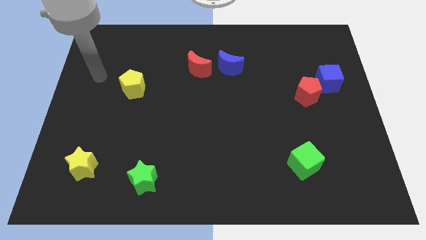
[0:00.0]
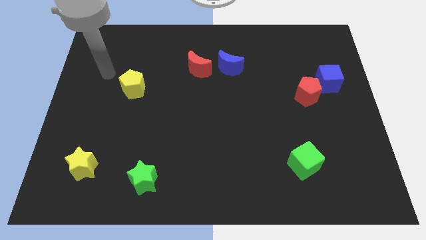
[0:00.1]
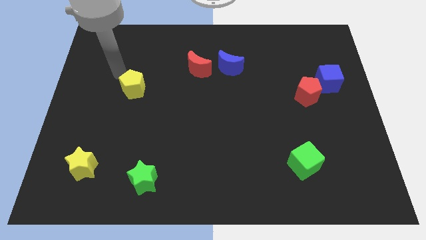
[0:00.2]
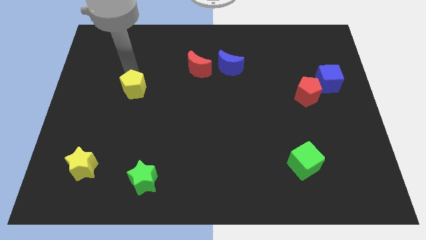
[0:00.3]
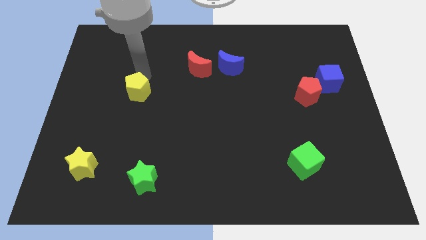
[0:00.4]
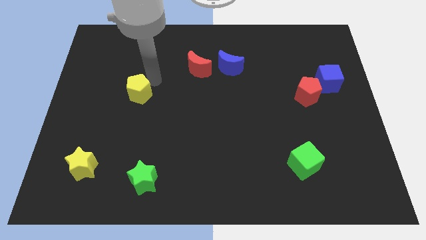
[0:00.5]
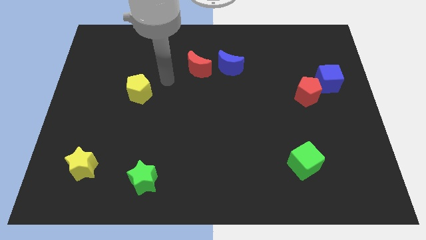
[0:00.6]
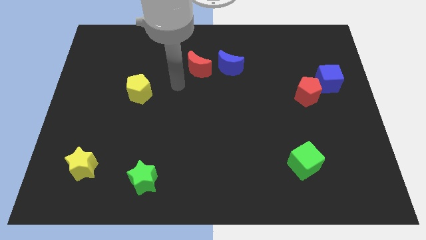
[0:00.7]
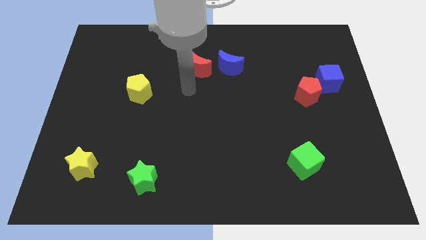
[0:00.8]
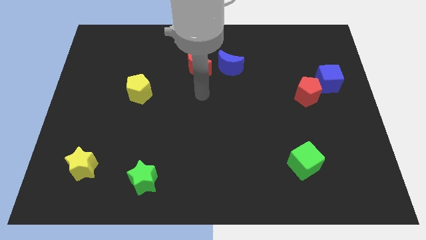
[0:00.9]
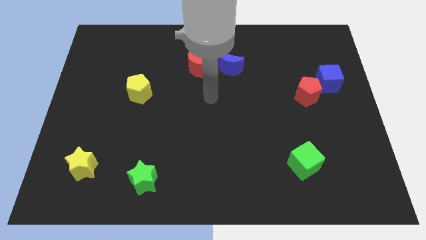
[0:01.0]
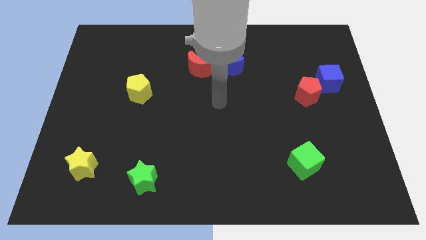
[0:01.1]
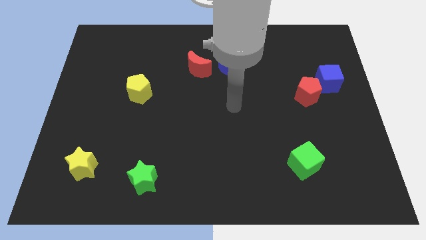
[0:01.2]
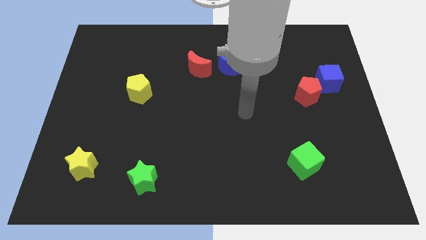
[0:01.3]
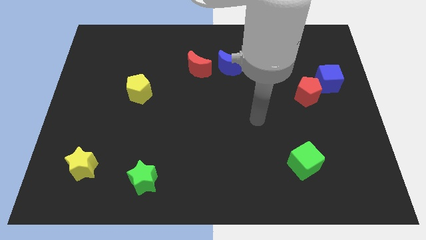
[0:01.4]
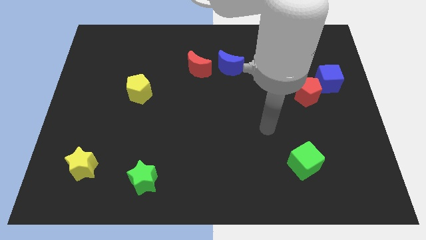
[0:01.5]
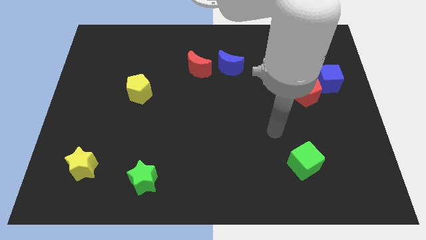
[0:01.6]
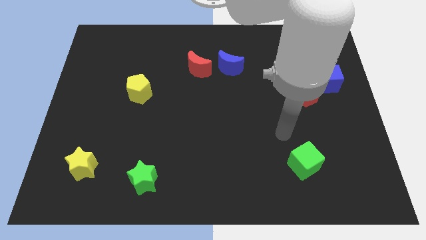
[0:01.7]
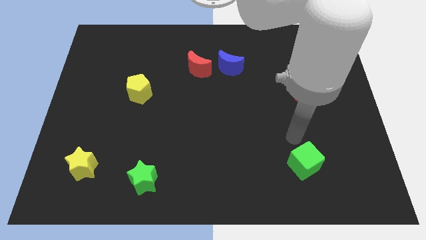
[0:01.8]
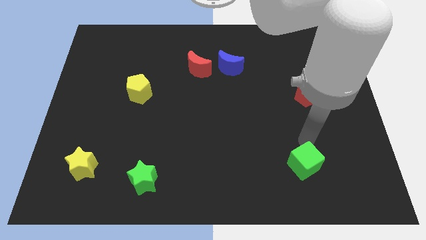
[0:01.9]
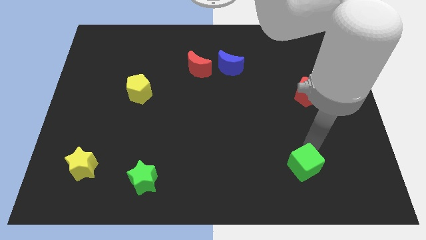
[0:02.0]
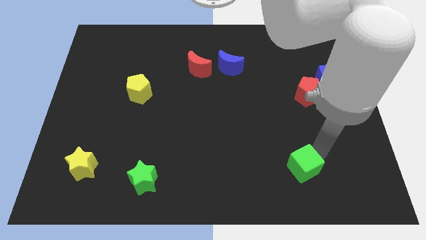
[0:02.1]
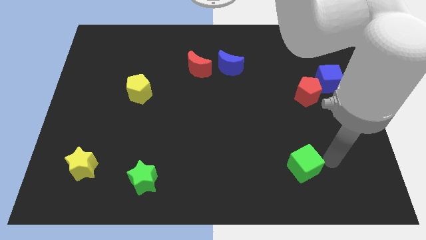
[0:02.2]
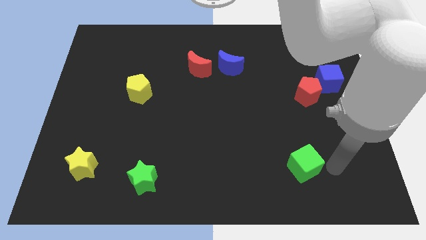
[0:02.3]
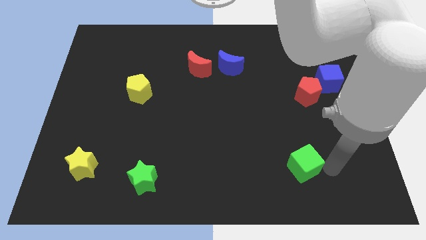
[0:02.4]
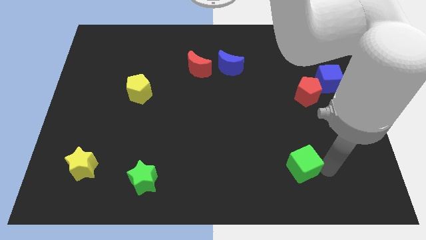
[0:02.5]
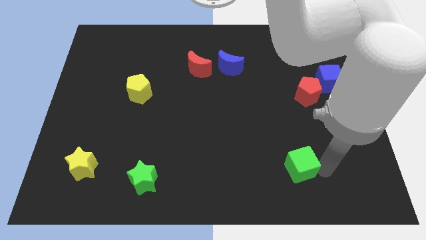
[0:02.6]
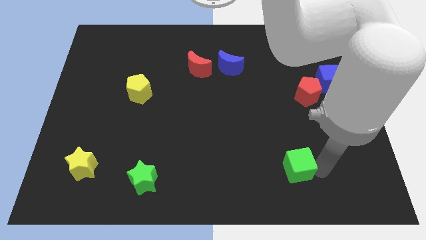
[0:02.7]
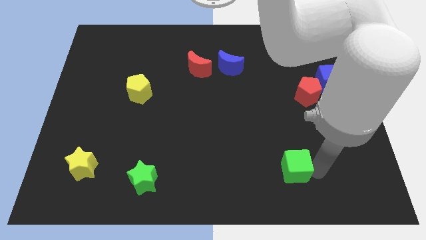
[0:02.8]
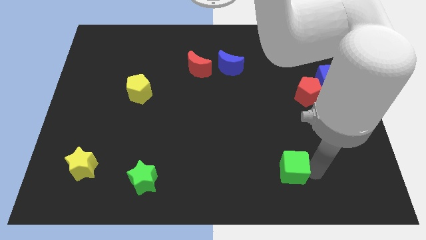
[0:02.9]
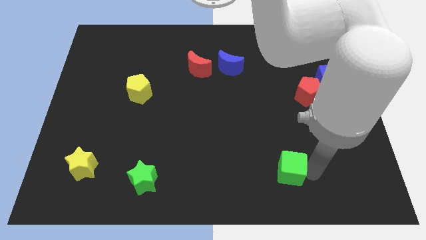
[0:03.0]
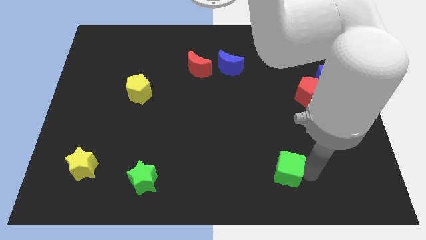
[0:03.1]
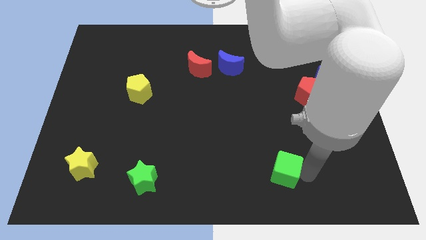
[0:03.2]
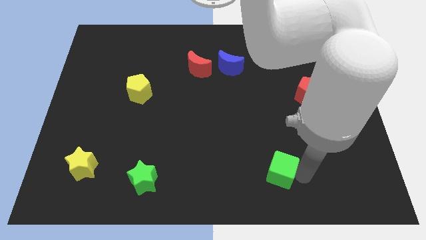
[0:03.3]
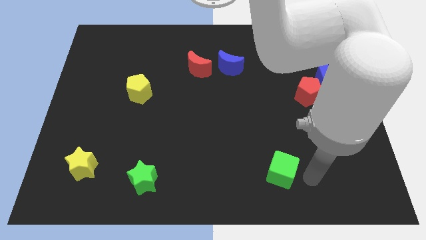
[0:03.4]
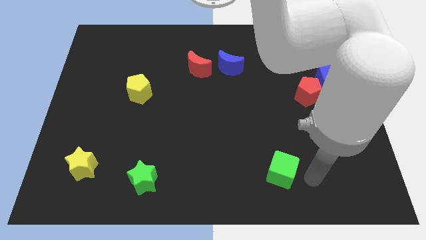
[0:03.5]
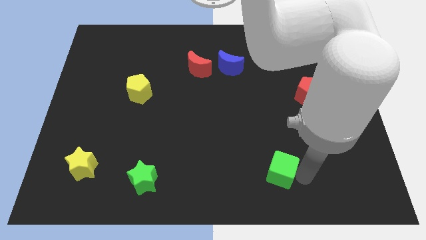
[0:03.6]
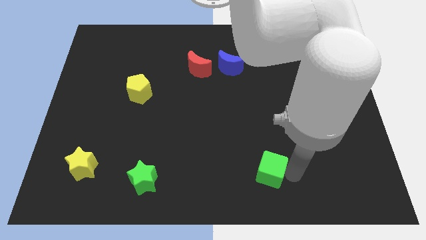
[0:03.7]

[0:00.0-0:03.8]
push the green cube to the left a little bit

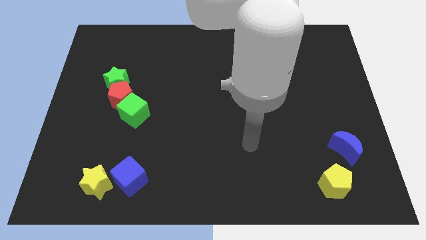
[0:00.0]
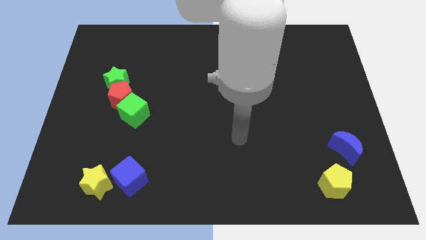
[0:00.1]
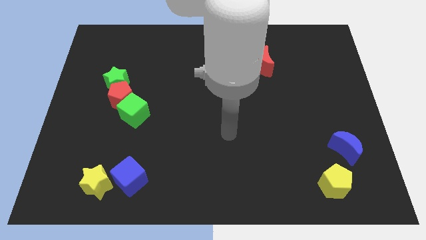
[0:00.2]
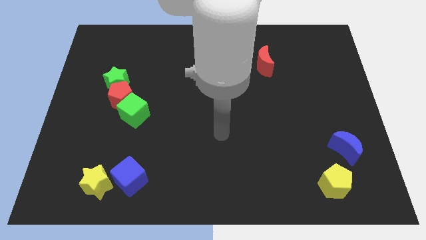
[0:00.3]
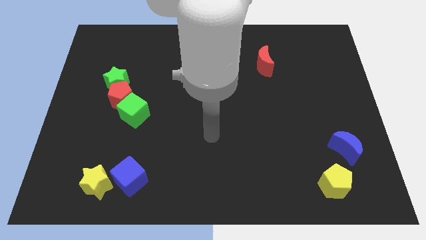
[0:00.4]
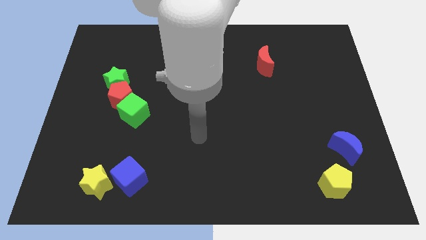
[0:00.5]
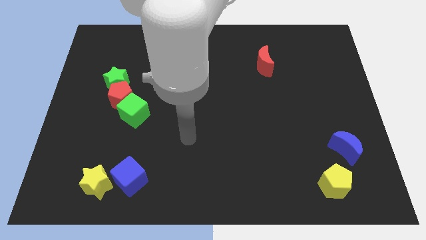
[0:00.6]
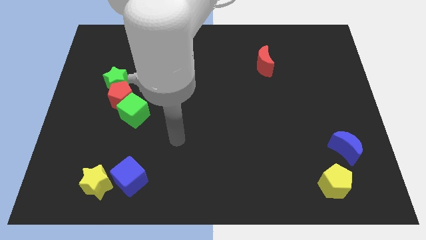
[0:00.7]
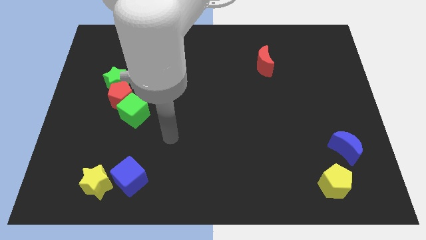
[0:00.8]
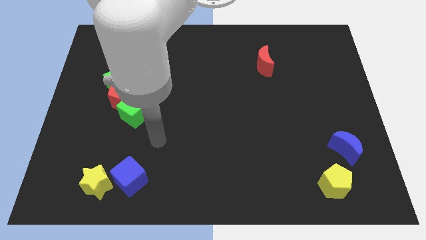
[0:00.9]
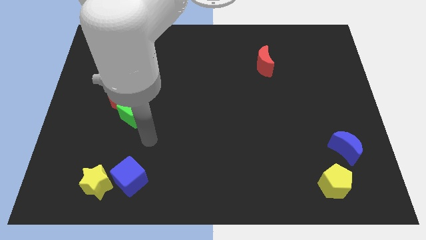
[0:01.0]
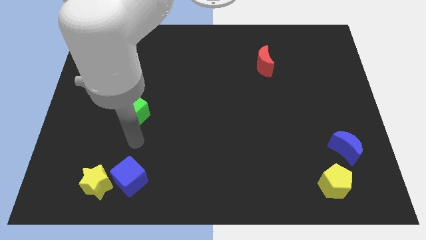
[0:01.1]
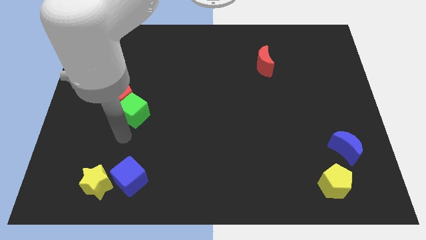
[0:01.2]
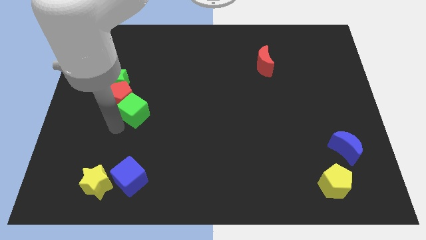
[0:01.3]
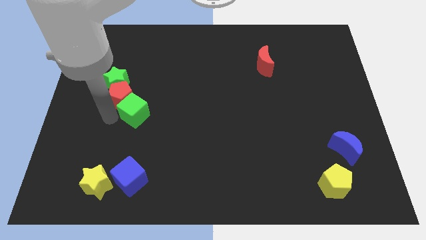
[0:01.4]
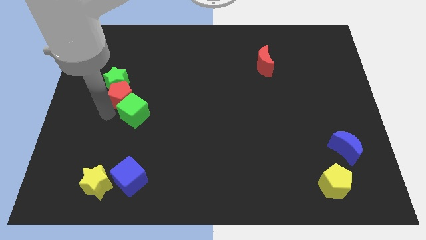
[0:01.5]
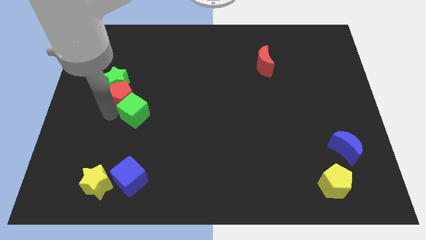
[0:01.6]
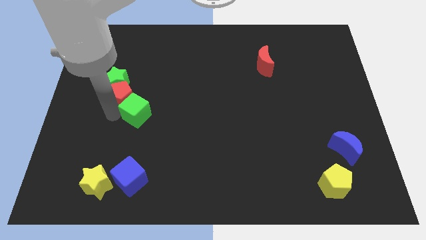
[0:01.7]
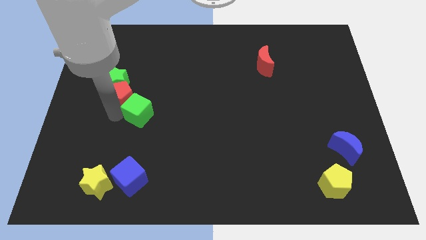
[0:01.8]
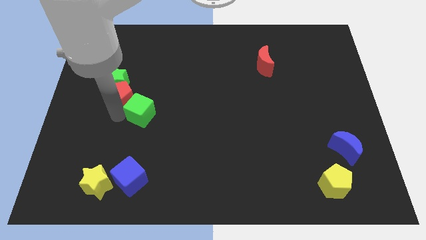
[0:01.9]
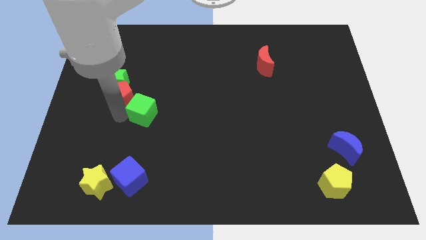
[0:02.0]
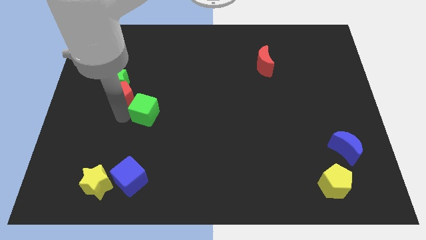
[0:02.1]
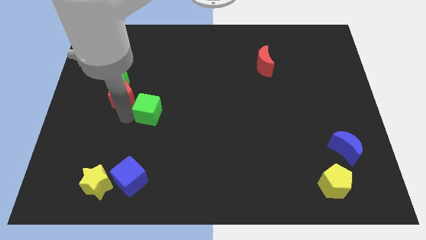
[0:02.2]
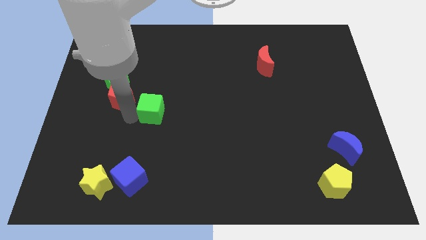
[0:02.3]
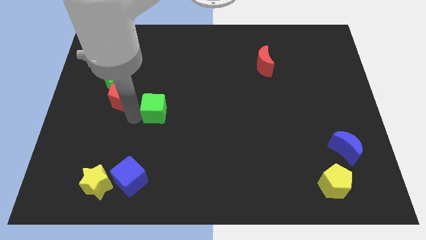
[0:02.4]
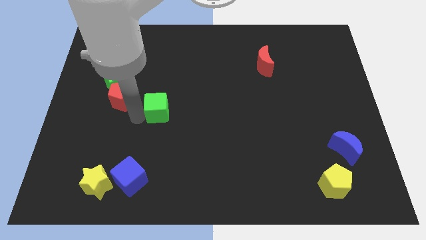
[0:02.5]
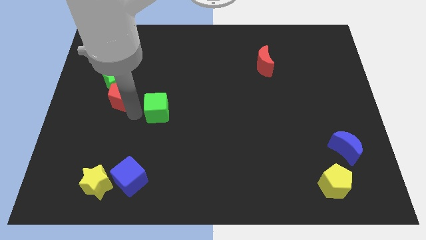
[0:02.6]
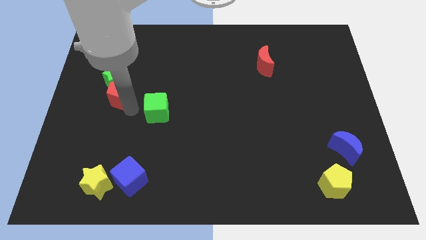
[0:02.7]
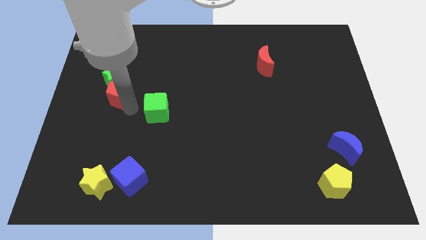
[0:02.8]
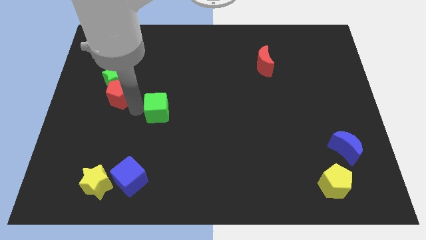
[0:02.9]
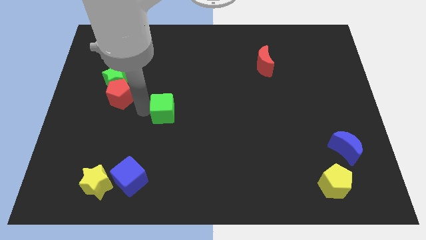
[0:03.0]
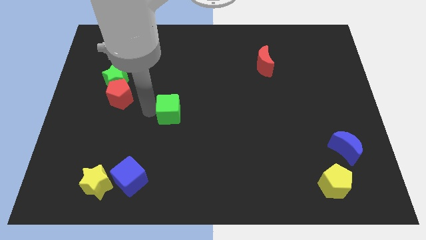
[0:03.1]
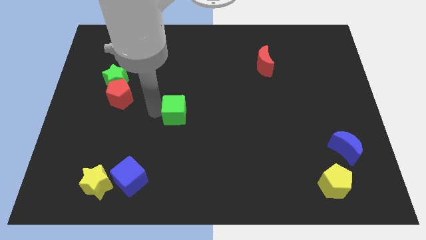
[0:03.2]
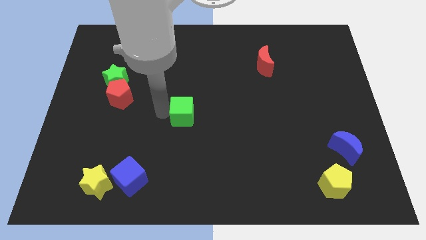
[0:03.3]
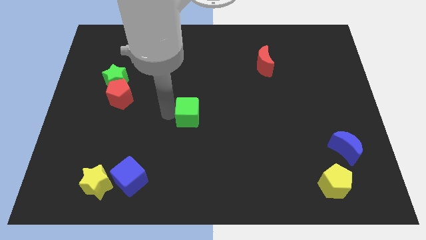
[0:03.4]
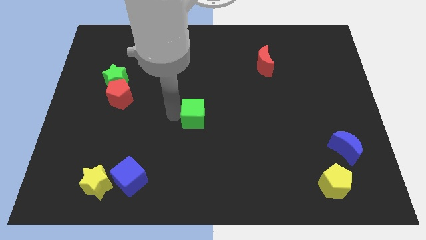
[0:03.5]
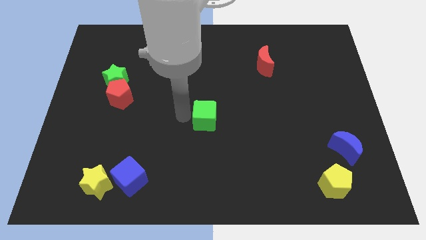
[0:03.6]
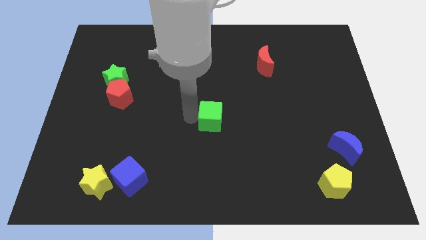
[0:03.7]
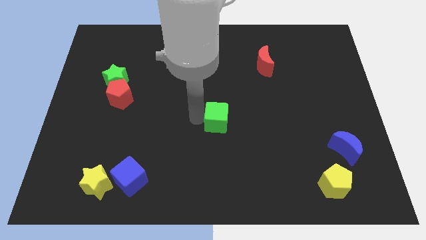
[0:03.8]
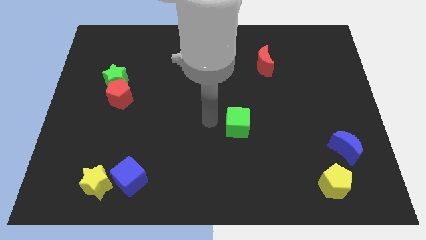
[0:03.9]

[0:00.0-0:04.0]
slide the green cube to the right
